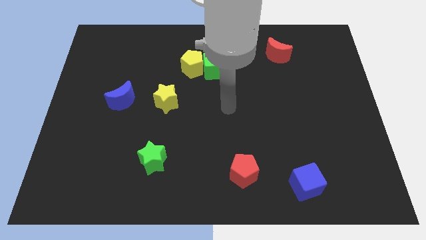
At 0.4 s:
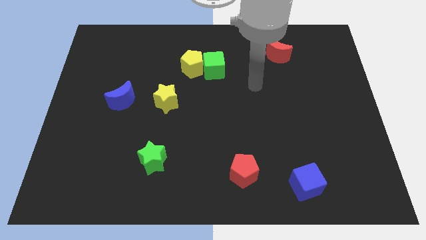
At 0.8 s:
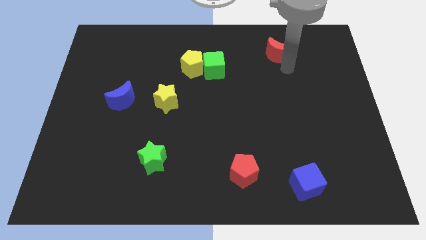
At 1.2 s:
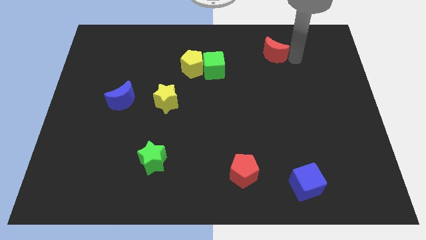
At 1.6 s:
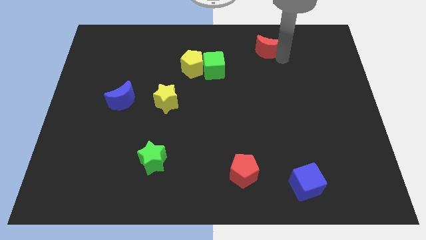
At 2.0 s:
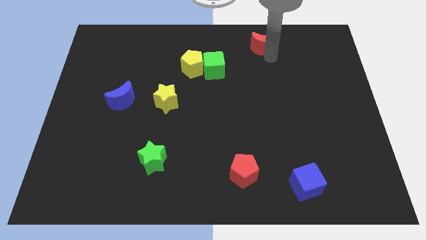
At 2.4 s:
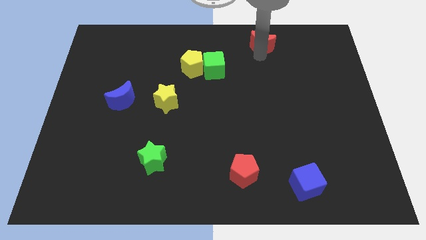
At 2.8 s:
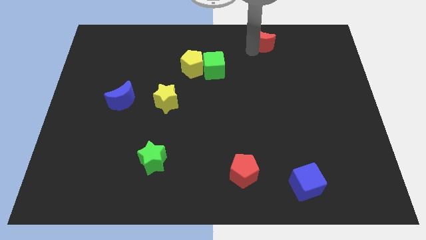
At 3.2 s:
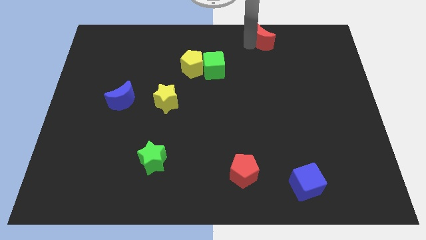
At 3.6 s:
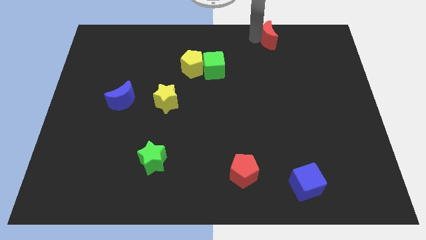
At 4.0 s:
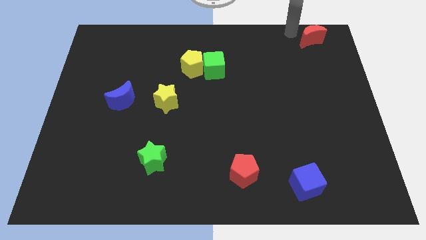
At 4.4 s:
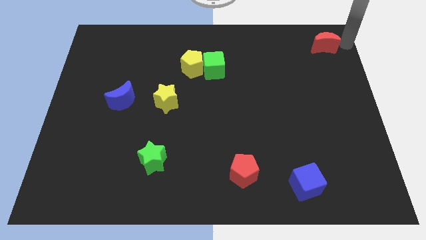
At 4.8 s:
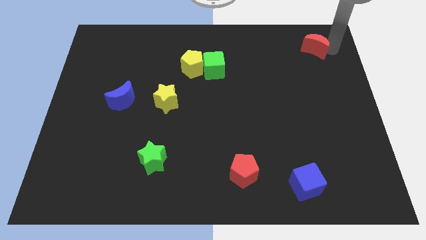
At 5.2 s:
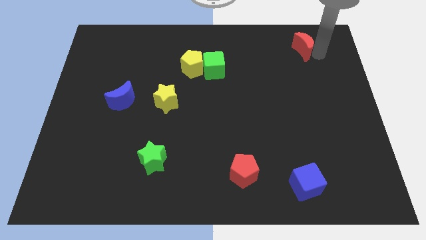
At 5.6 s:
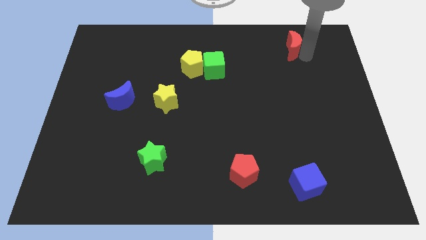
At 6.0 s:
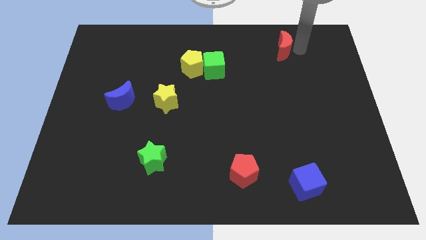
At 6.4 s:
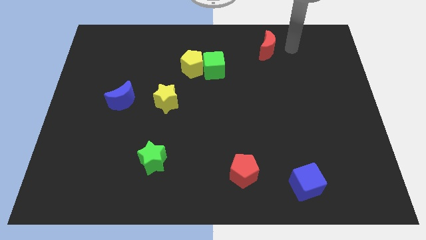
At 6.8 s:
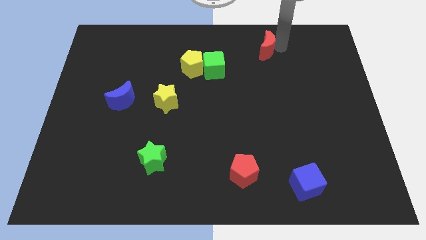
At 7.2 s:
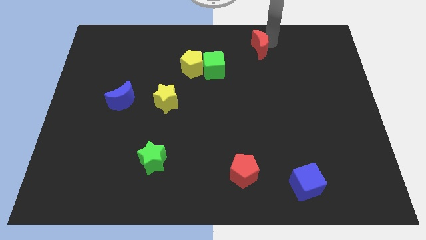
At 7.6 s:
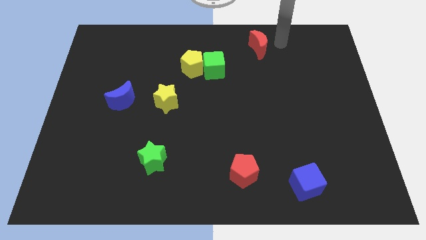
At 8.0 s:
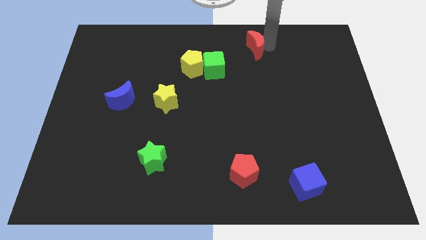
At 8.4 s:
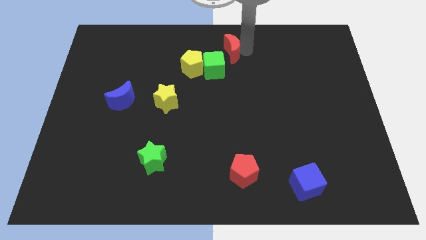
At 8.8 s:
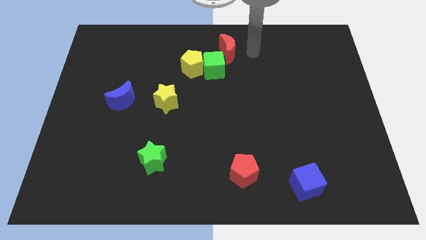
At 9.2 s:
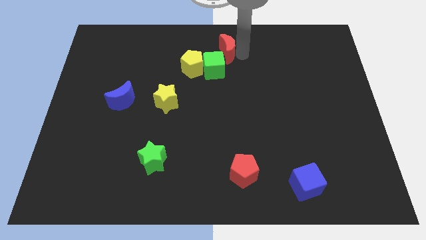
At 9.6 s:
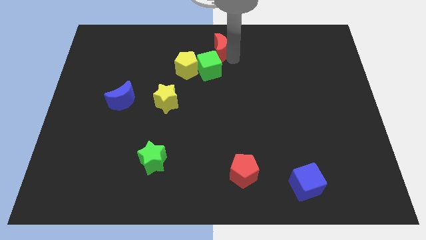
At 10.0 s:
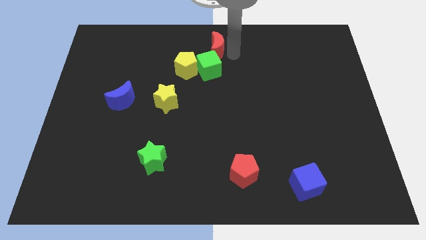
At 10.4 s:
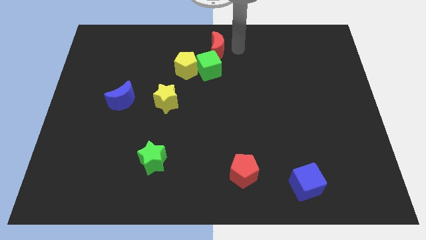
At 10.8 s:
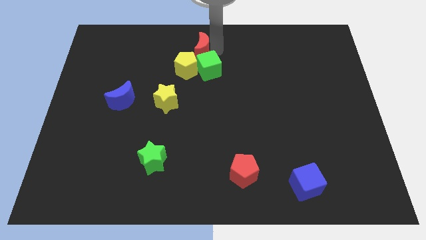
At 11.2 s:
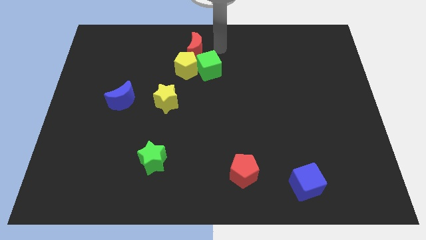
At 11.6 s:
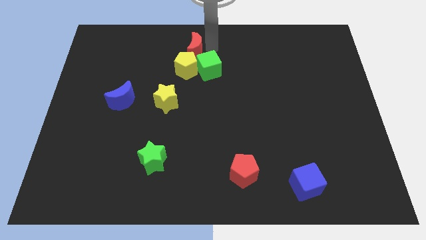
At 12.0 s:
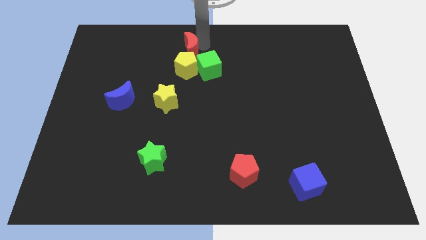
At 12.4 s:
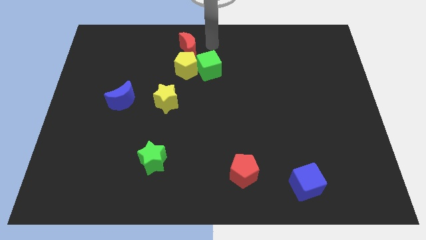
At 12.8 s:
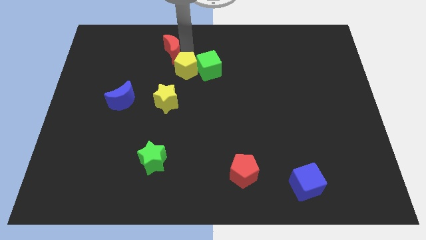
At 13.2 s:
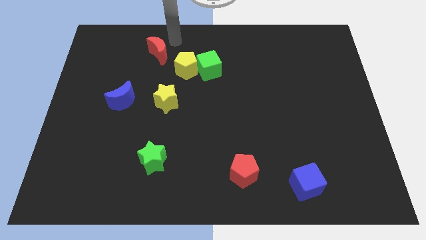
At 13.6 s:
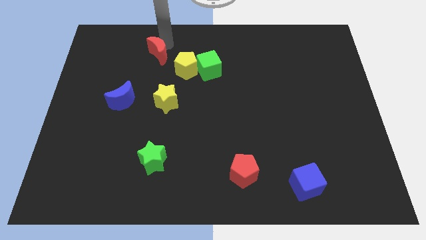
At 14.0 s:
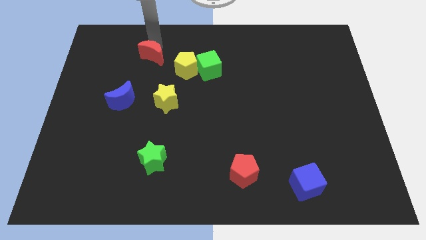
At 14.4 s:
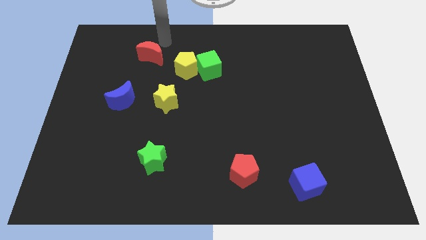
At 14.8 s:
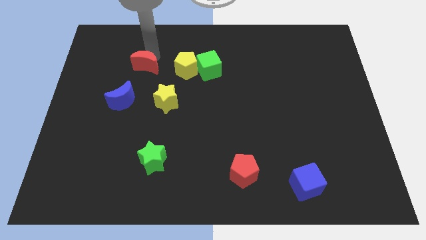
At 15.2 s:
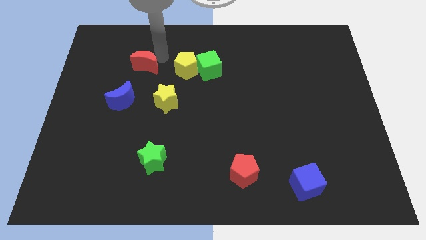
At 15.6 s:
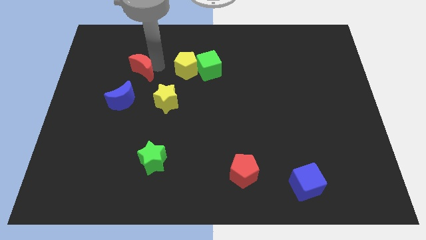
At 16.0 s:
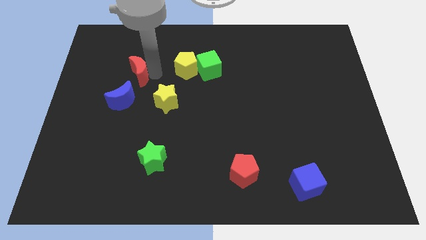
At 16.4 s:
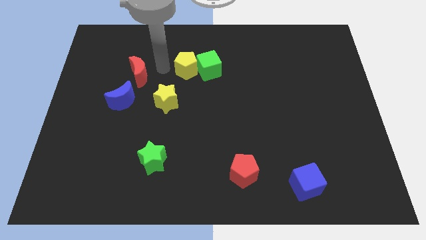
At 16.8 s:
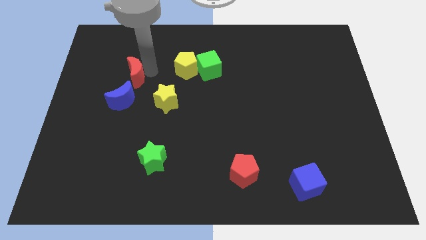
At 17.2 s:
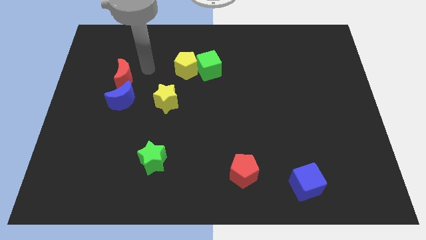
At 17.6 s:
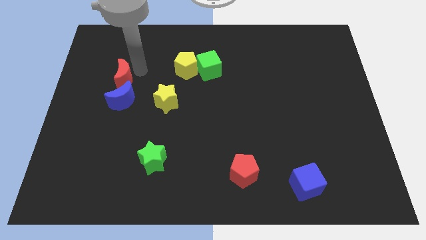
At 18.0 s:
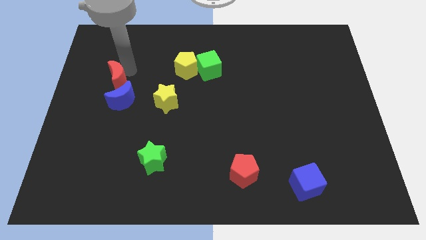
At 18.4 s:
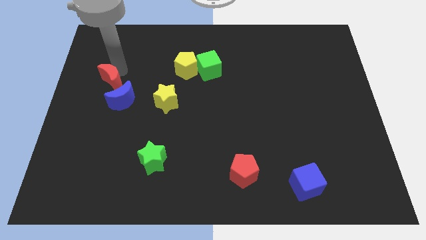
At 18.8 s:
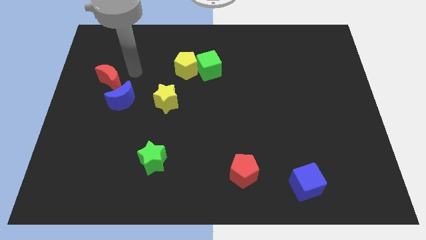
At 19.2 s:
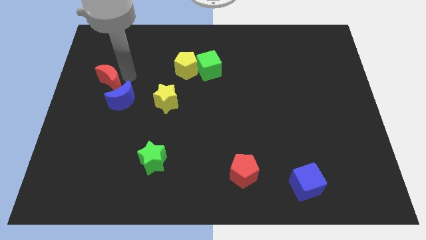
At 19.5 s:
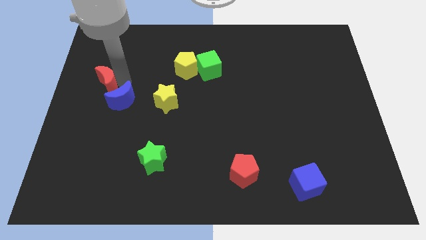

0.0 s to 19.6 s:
slide the red moon to the center left

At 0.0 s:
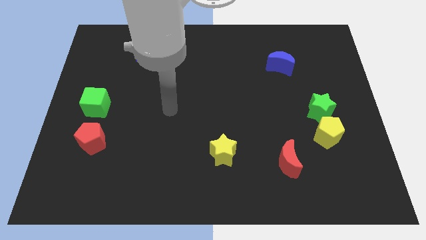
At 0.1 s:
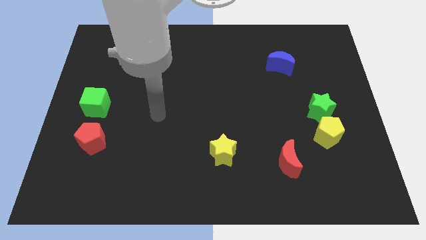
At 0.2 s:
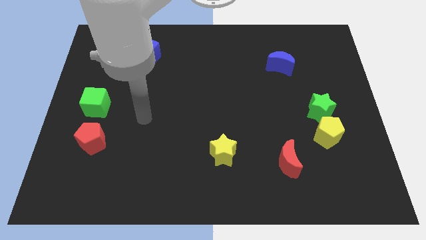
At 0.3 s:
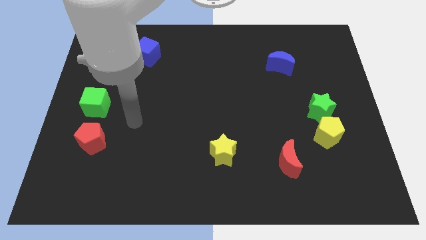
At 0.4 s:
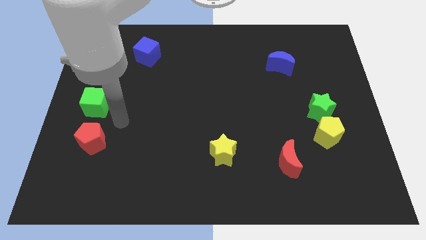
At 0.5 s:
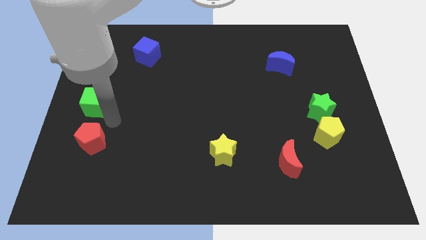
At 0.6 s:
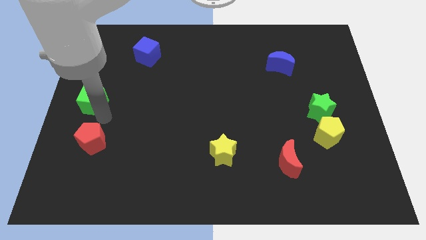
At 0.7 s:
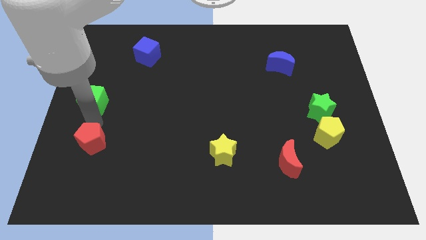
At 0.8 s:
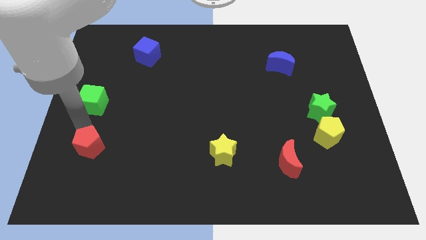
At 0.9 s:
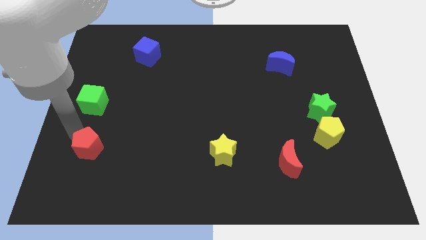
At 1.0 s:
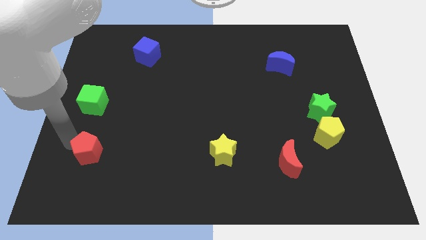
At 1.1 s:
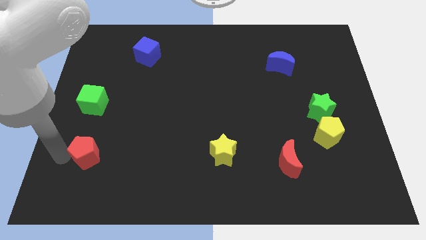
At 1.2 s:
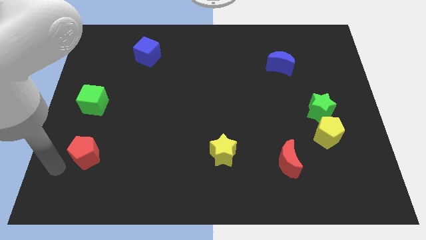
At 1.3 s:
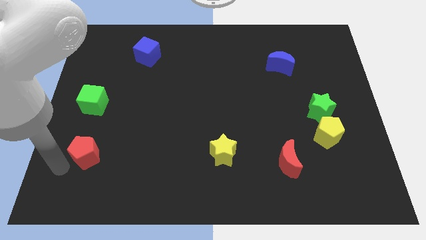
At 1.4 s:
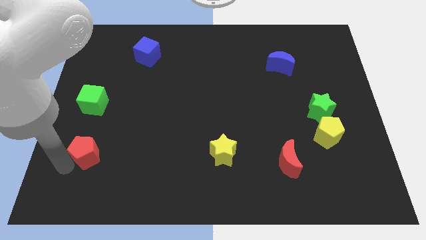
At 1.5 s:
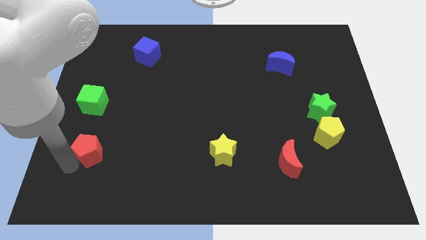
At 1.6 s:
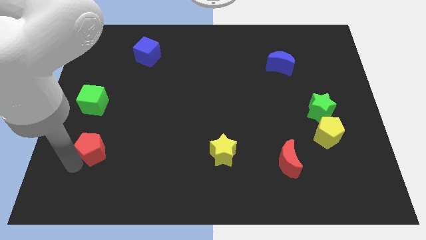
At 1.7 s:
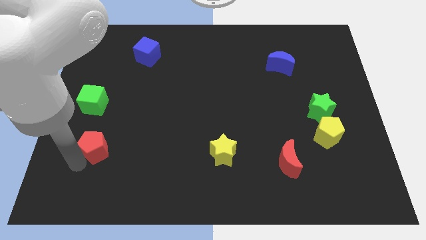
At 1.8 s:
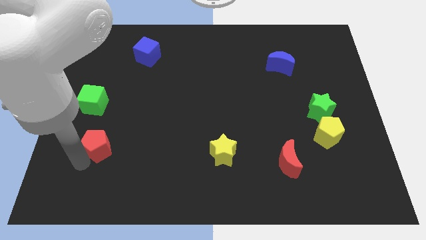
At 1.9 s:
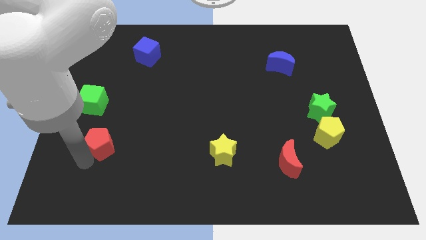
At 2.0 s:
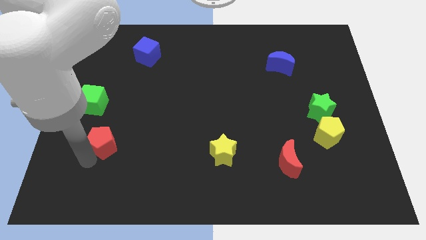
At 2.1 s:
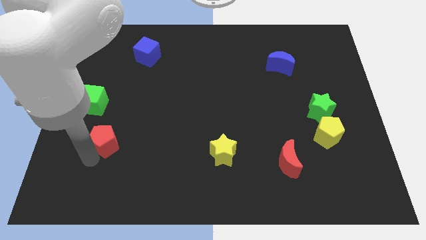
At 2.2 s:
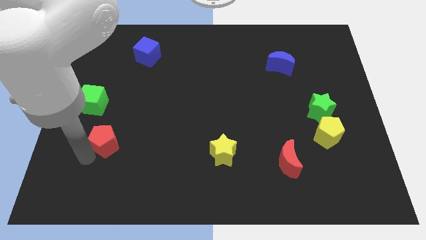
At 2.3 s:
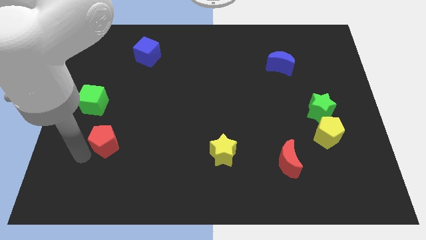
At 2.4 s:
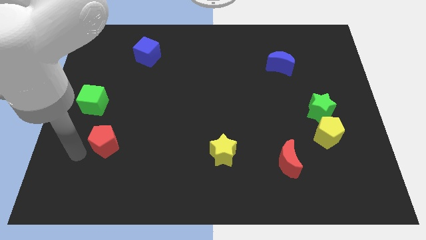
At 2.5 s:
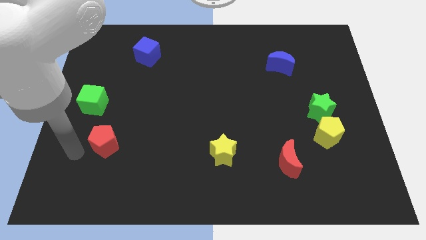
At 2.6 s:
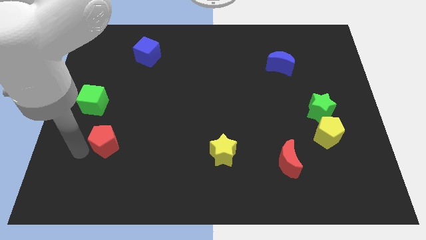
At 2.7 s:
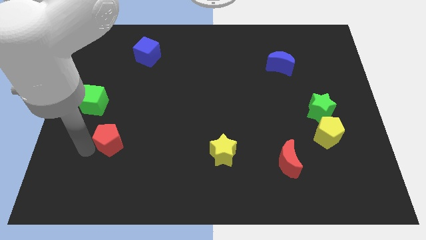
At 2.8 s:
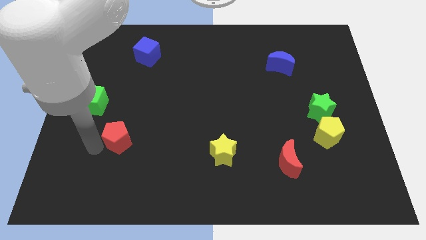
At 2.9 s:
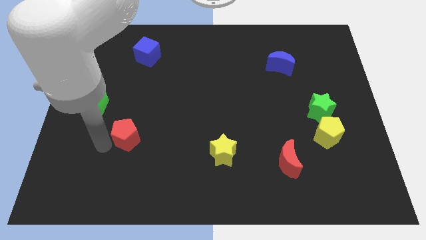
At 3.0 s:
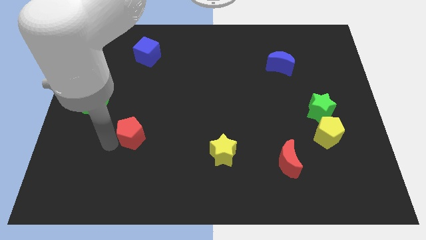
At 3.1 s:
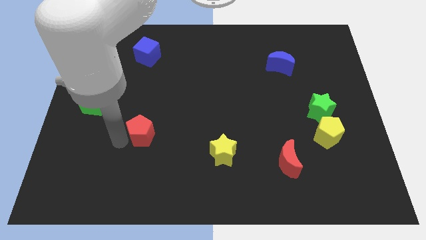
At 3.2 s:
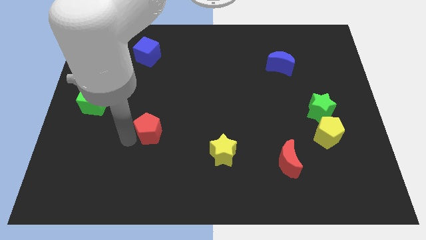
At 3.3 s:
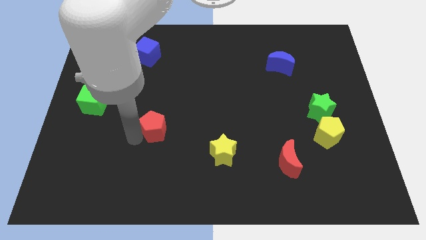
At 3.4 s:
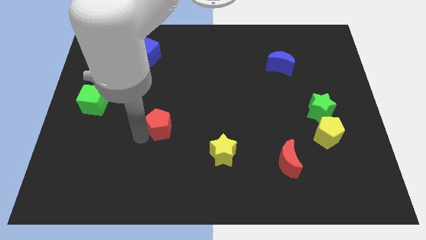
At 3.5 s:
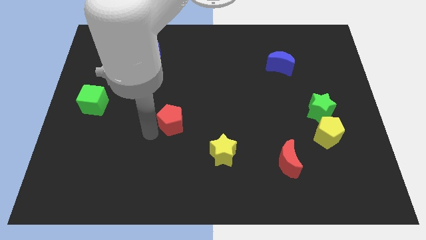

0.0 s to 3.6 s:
slide the red pentagon to the middle of the board
